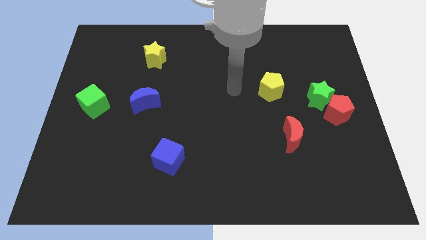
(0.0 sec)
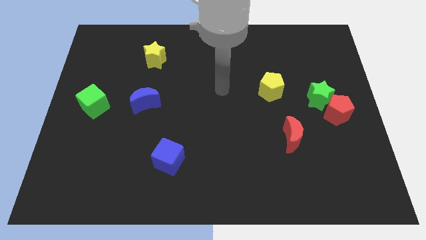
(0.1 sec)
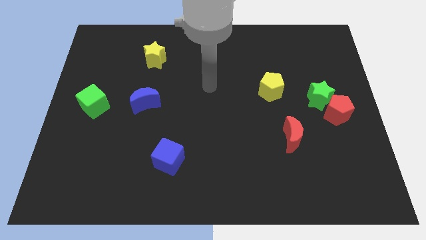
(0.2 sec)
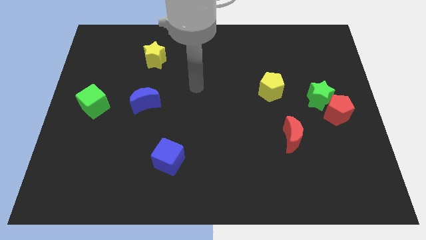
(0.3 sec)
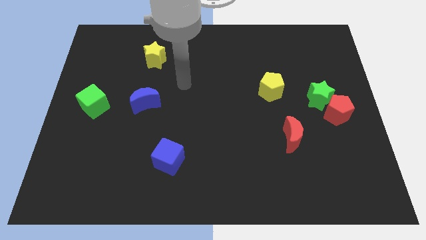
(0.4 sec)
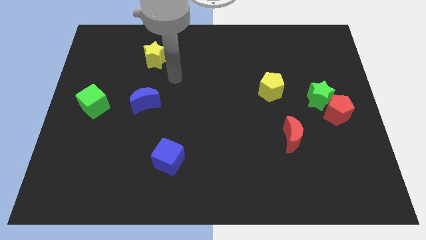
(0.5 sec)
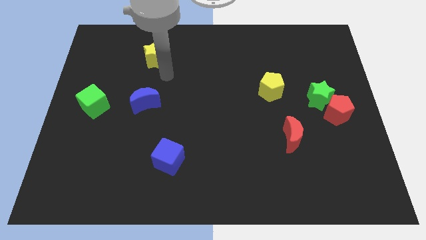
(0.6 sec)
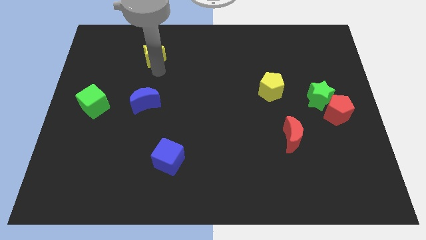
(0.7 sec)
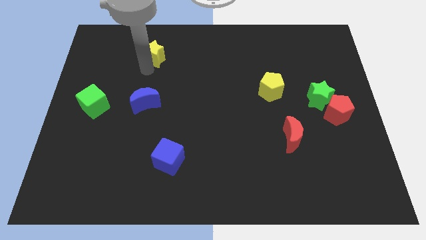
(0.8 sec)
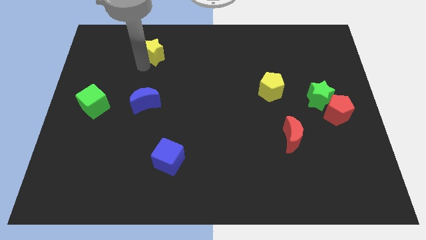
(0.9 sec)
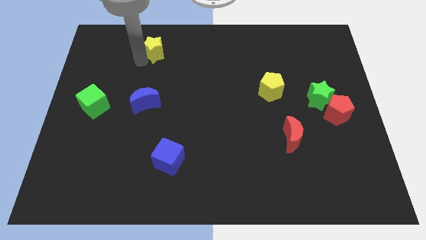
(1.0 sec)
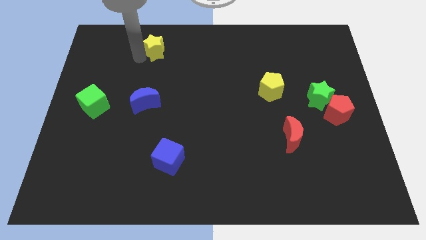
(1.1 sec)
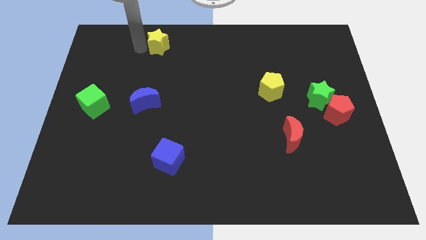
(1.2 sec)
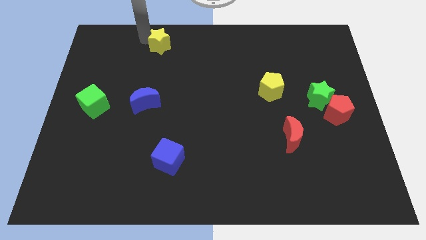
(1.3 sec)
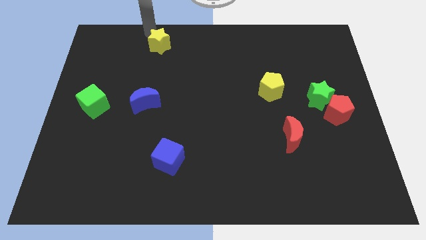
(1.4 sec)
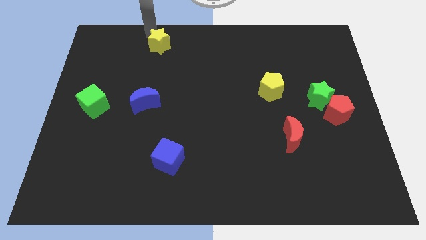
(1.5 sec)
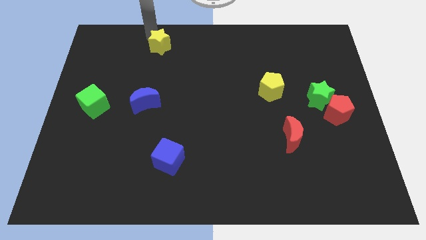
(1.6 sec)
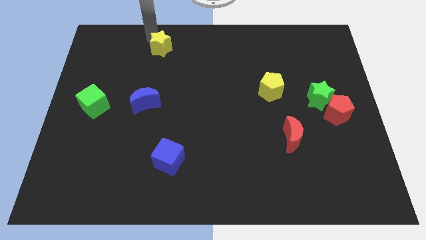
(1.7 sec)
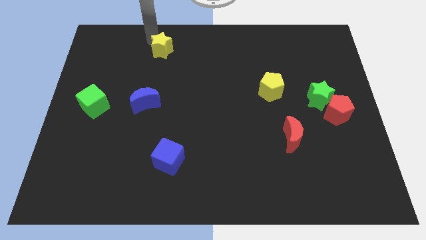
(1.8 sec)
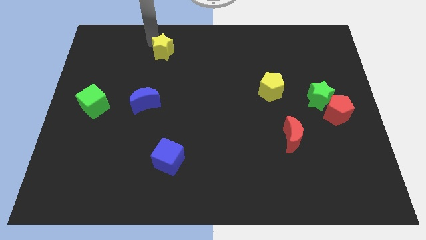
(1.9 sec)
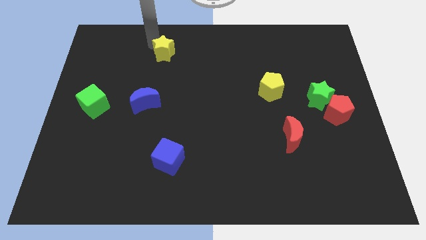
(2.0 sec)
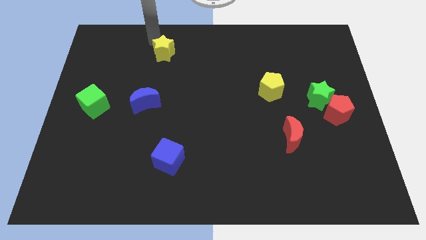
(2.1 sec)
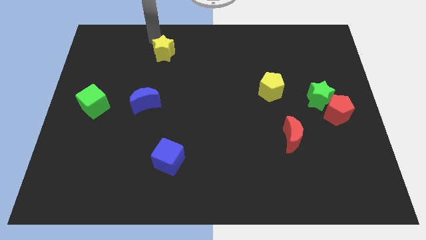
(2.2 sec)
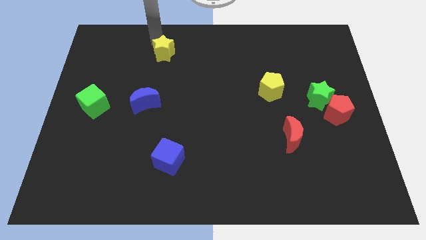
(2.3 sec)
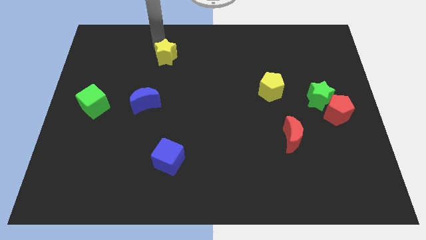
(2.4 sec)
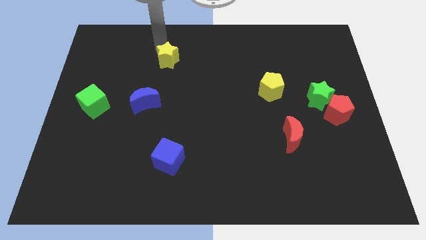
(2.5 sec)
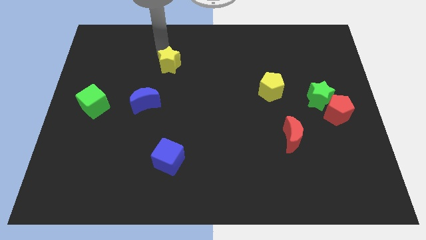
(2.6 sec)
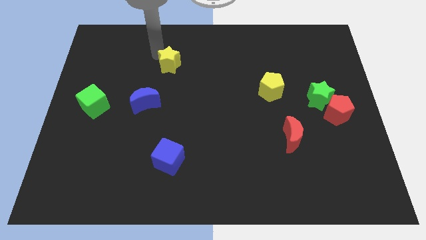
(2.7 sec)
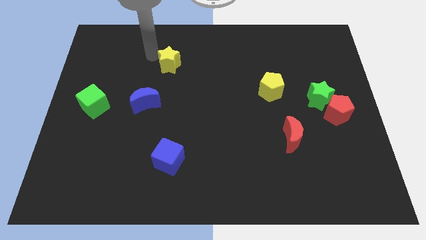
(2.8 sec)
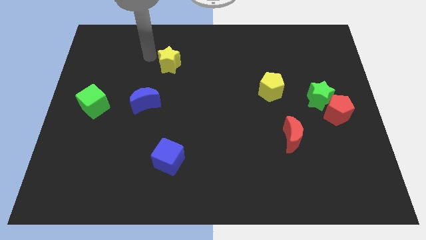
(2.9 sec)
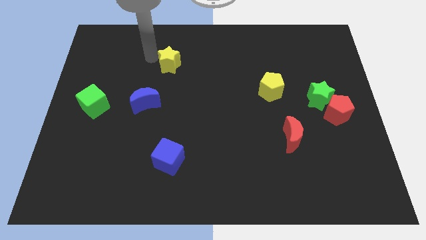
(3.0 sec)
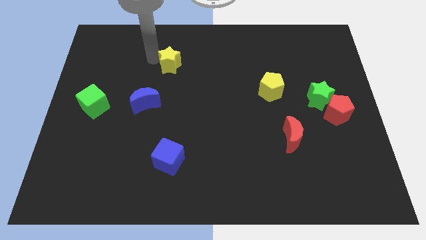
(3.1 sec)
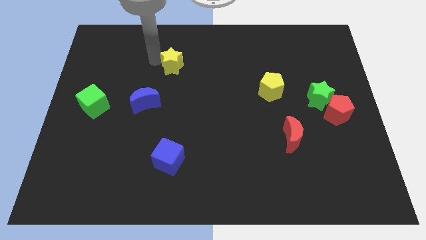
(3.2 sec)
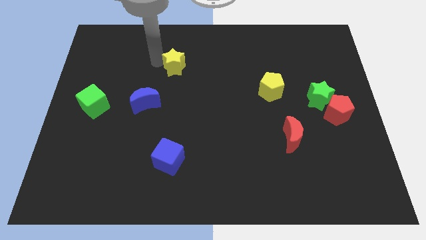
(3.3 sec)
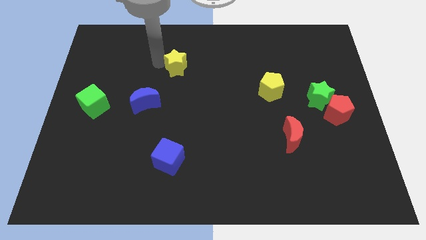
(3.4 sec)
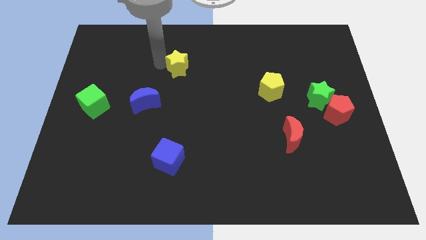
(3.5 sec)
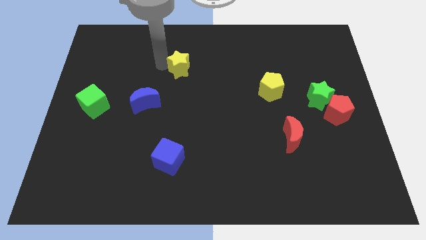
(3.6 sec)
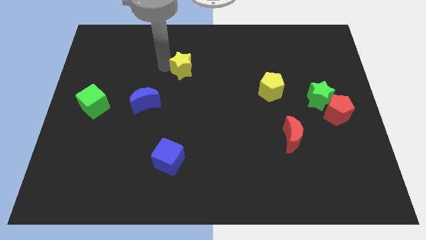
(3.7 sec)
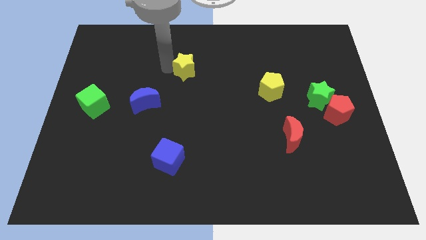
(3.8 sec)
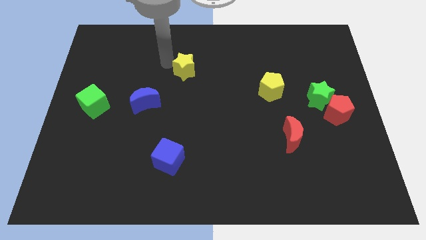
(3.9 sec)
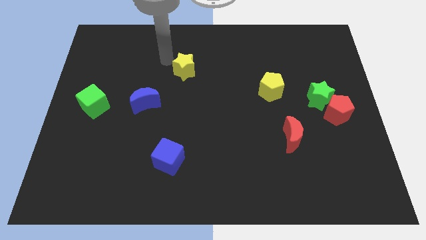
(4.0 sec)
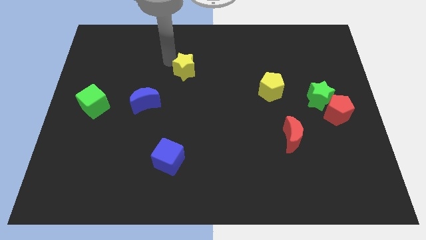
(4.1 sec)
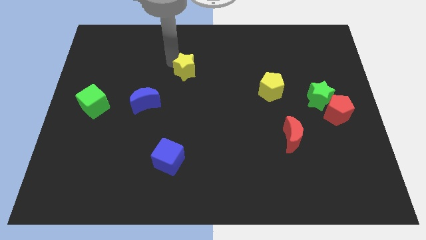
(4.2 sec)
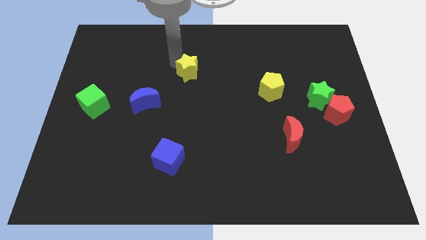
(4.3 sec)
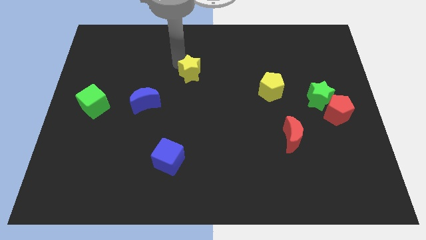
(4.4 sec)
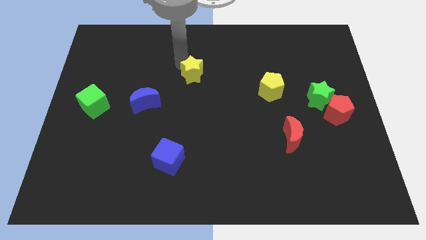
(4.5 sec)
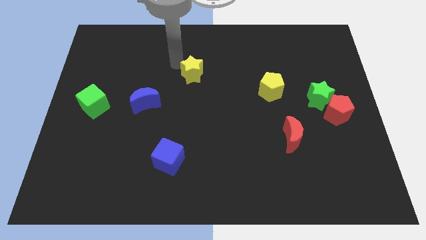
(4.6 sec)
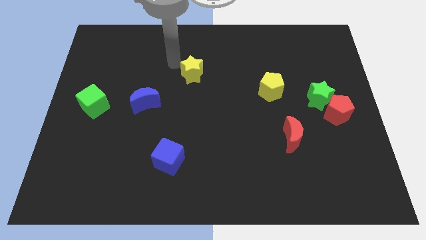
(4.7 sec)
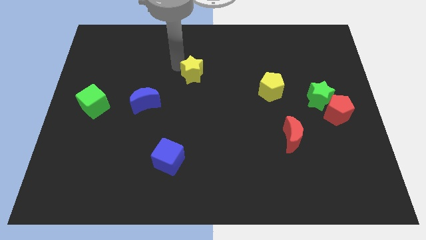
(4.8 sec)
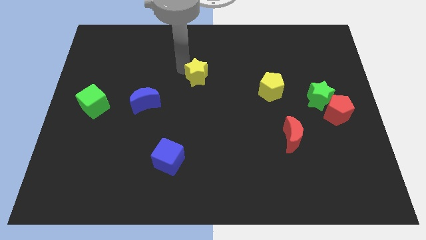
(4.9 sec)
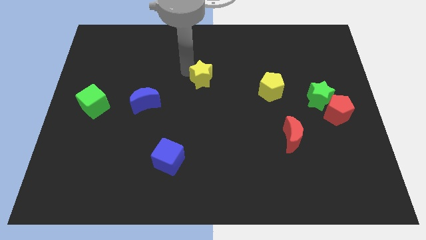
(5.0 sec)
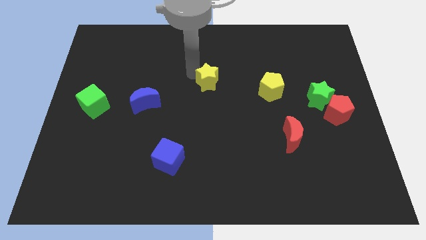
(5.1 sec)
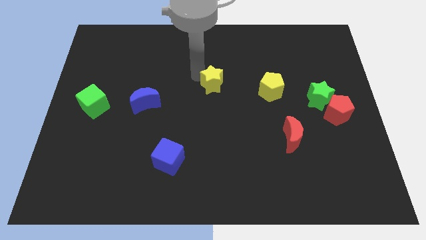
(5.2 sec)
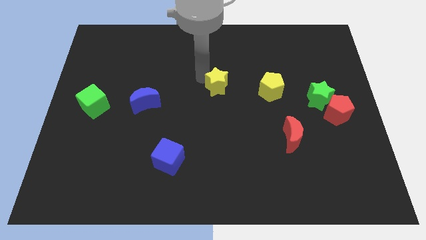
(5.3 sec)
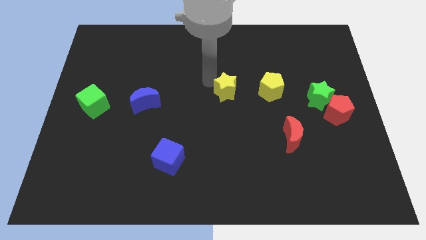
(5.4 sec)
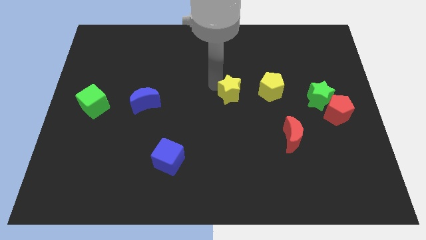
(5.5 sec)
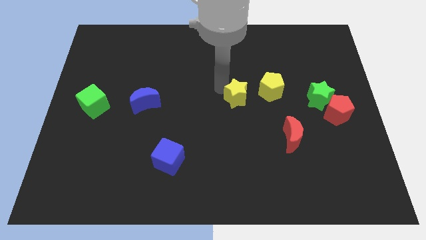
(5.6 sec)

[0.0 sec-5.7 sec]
push the yellow star to the bottom left of the yellow pentagon
